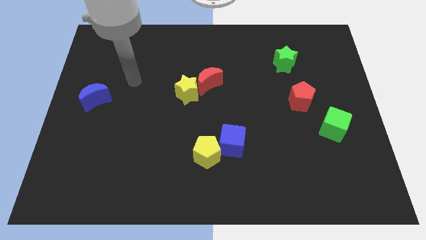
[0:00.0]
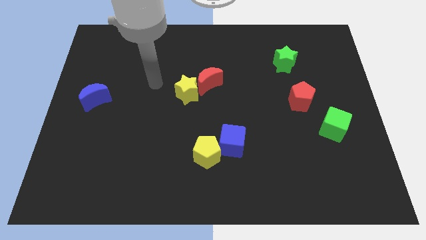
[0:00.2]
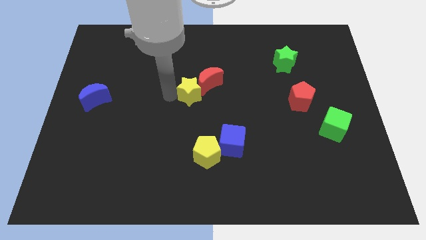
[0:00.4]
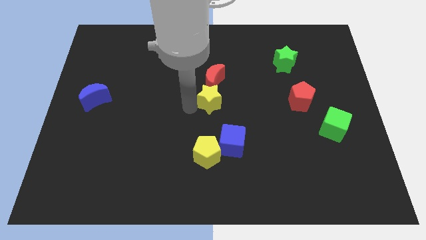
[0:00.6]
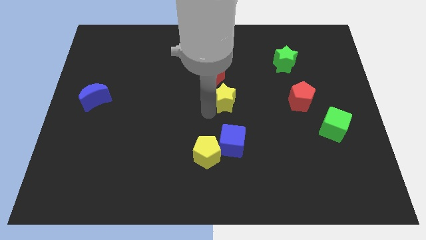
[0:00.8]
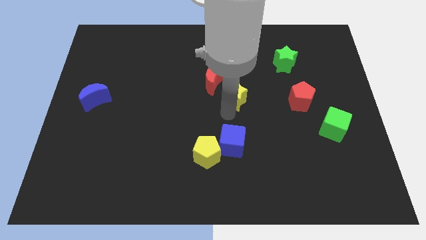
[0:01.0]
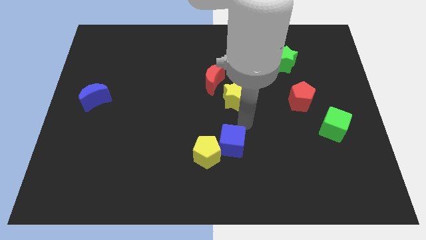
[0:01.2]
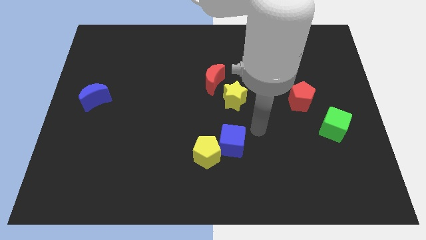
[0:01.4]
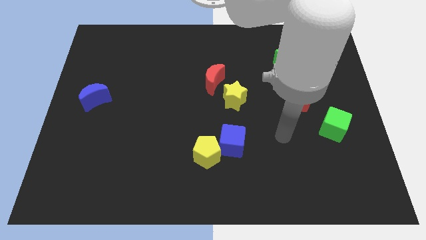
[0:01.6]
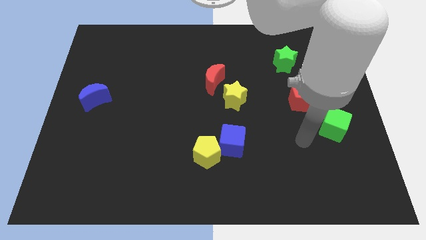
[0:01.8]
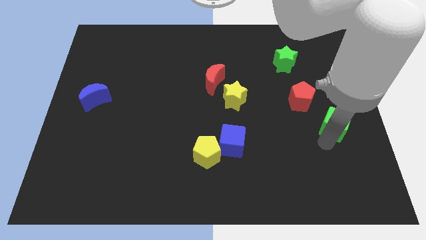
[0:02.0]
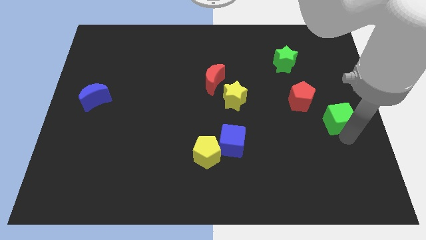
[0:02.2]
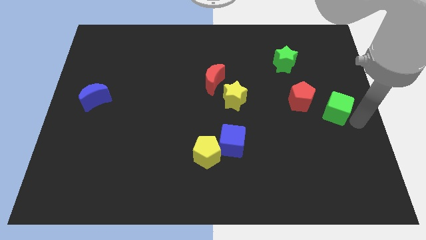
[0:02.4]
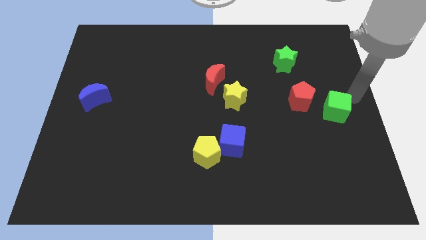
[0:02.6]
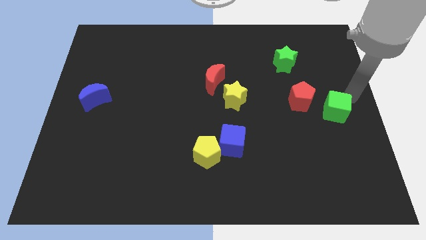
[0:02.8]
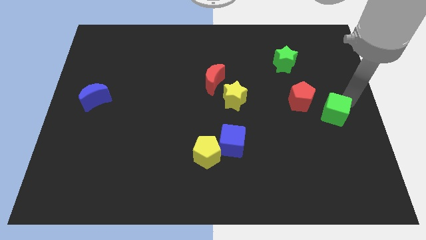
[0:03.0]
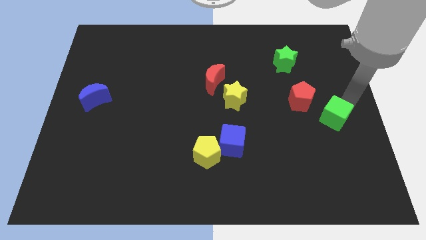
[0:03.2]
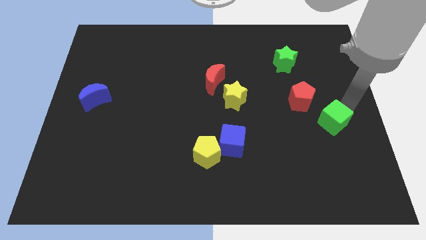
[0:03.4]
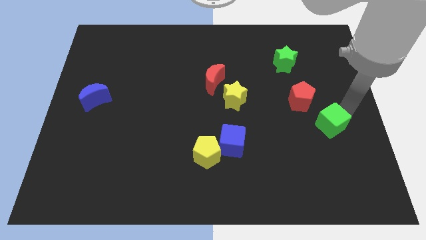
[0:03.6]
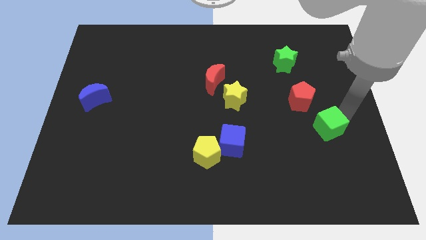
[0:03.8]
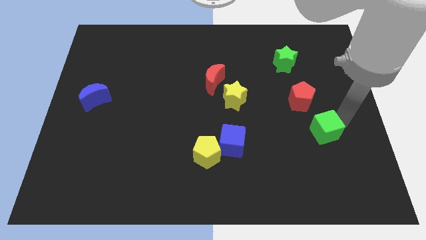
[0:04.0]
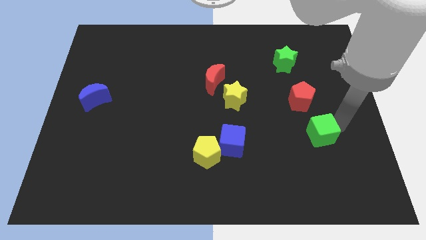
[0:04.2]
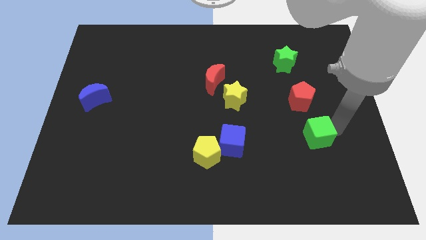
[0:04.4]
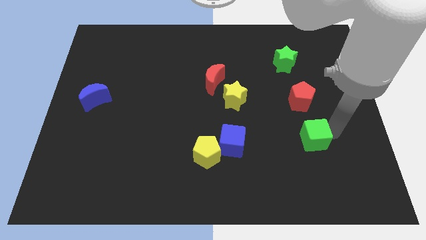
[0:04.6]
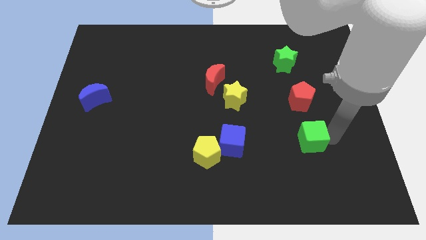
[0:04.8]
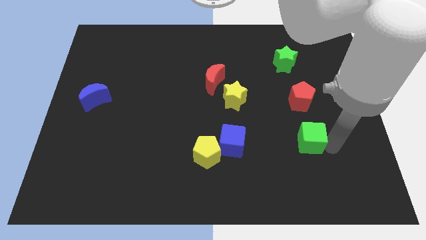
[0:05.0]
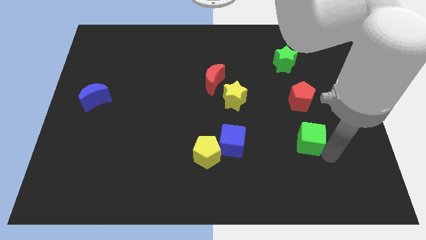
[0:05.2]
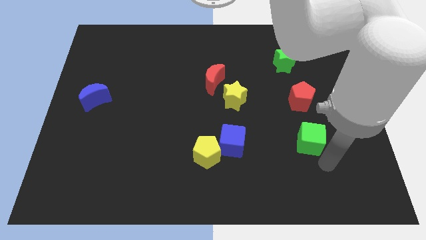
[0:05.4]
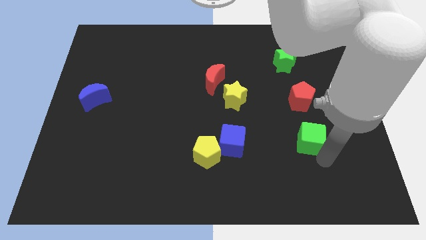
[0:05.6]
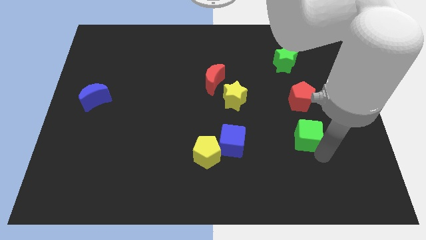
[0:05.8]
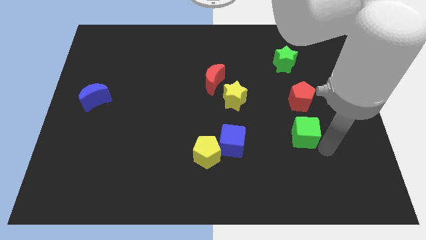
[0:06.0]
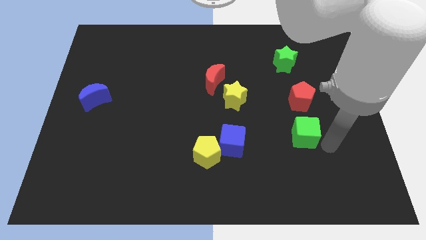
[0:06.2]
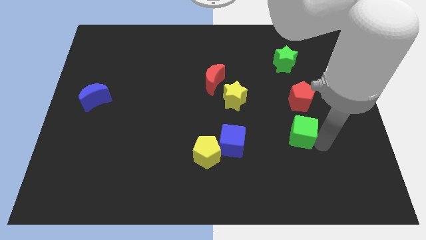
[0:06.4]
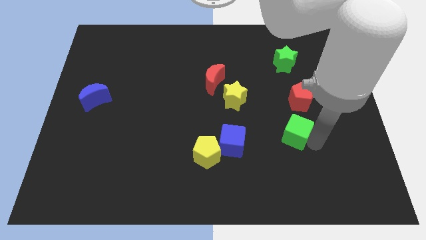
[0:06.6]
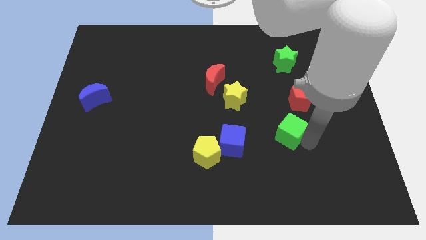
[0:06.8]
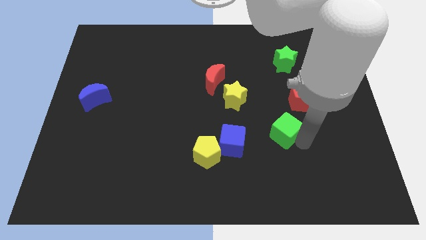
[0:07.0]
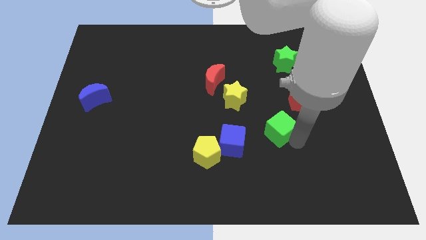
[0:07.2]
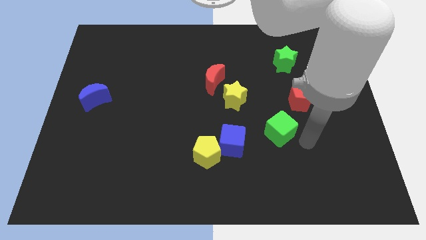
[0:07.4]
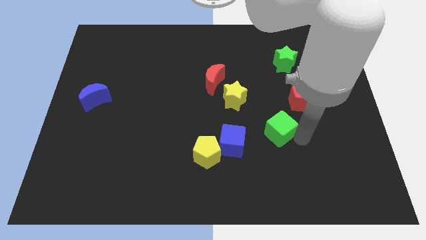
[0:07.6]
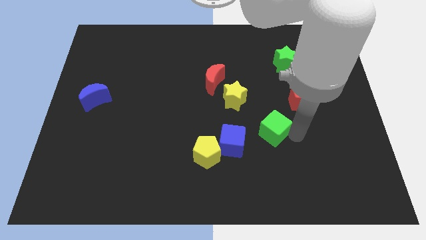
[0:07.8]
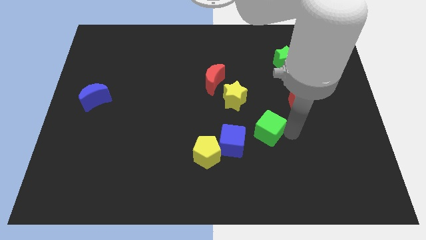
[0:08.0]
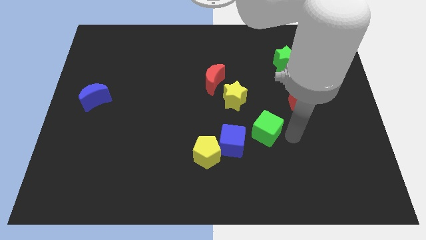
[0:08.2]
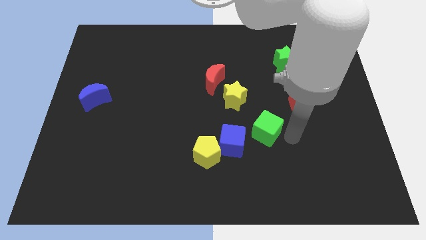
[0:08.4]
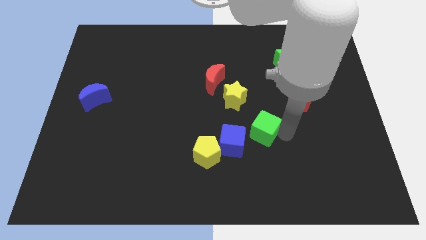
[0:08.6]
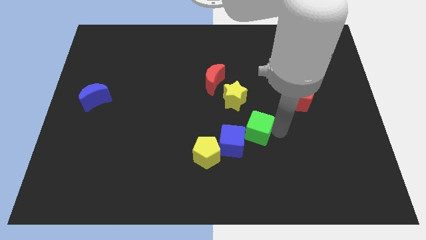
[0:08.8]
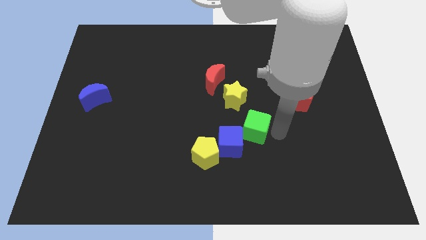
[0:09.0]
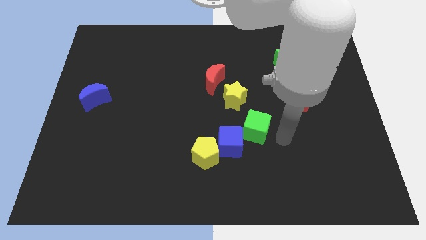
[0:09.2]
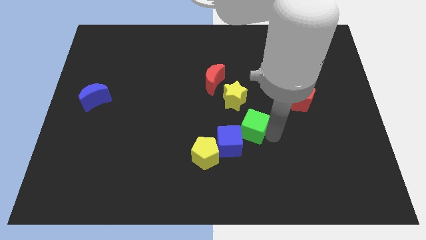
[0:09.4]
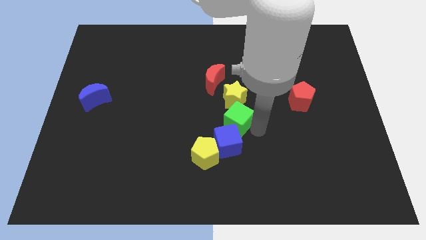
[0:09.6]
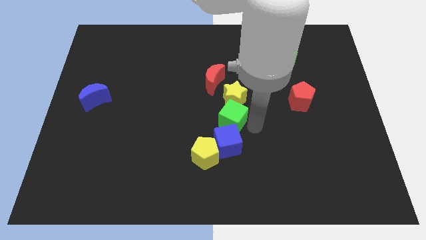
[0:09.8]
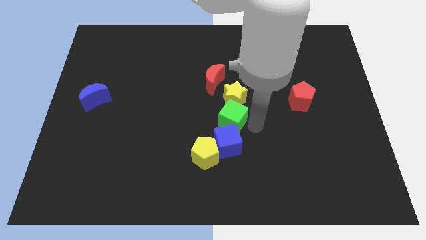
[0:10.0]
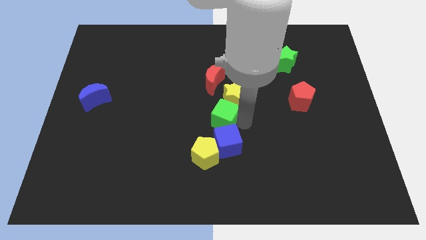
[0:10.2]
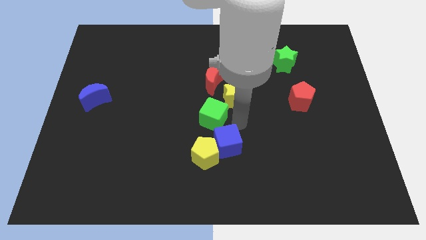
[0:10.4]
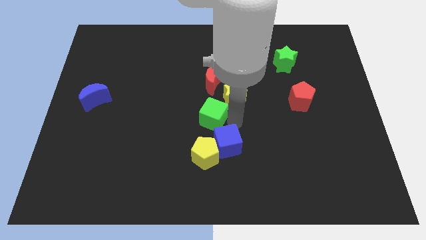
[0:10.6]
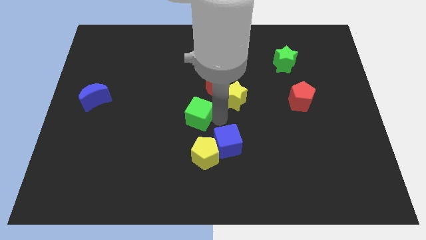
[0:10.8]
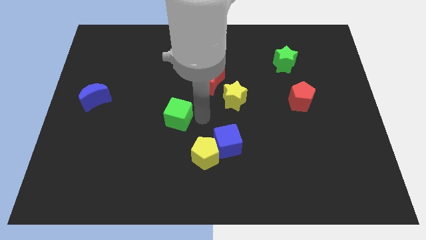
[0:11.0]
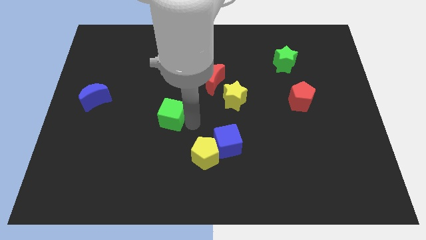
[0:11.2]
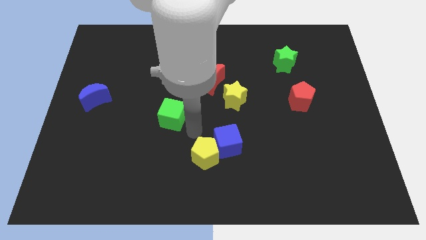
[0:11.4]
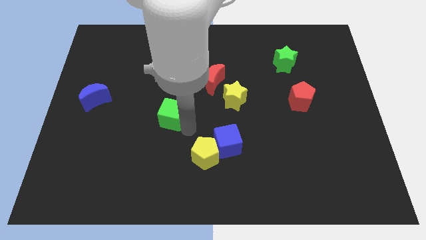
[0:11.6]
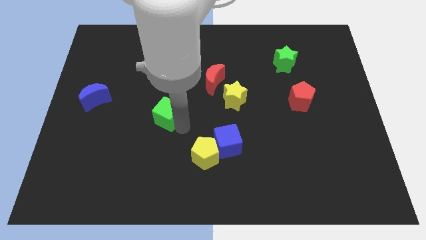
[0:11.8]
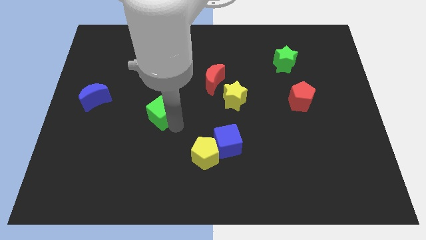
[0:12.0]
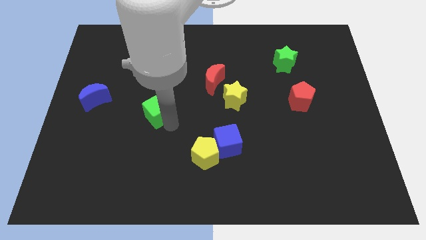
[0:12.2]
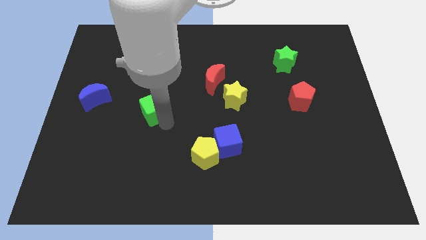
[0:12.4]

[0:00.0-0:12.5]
push the green cube just right of the blue moon

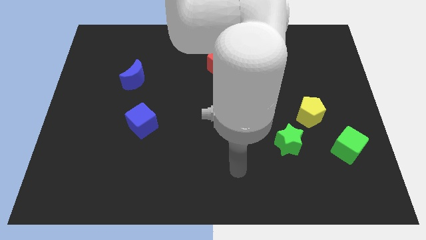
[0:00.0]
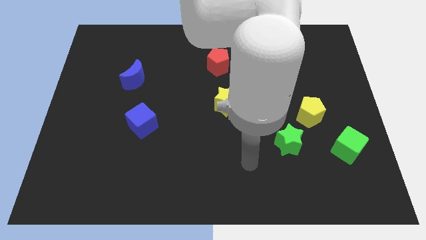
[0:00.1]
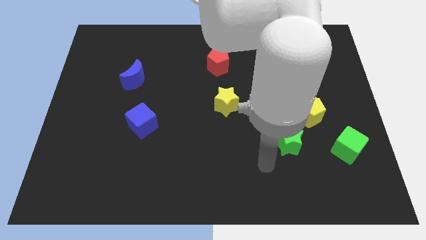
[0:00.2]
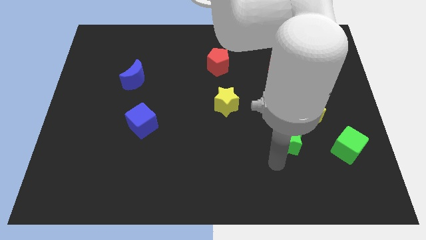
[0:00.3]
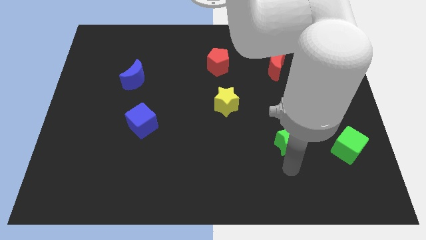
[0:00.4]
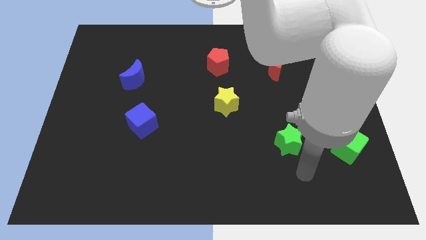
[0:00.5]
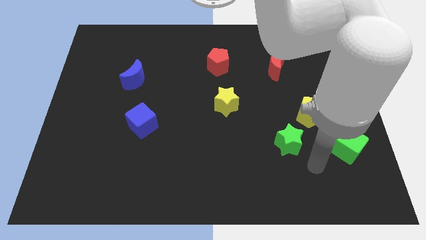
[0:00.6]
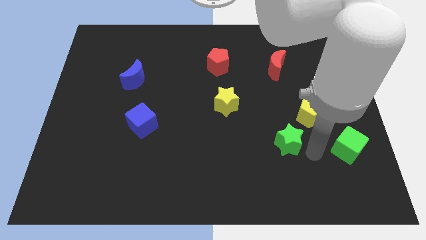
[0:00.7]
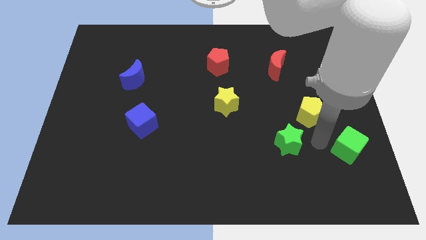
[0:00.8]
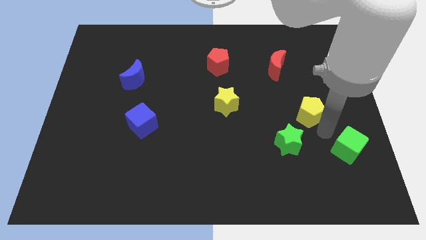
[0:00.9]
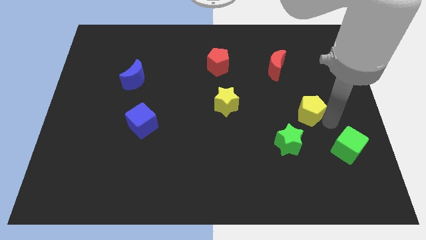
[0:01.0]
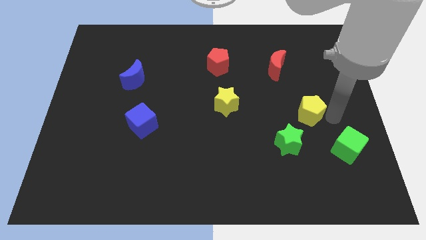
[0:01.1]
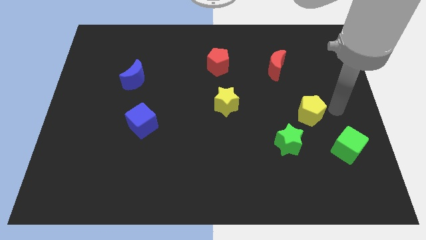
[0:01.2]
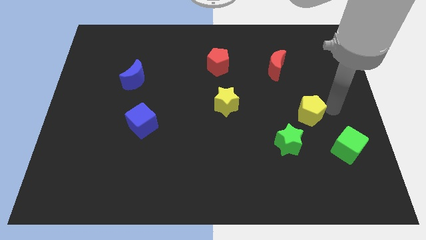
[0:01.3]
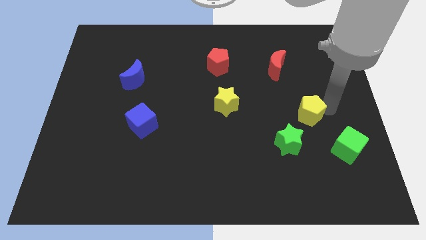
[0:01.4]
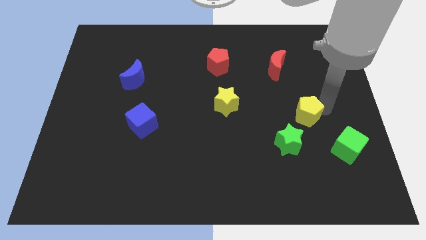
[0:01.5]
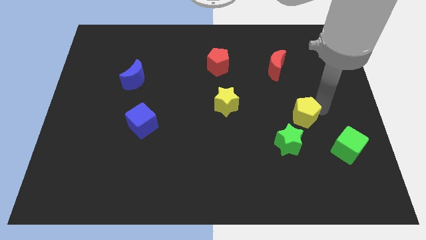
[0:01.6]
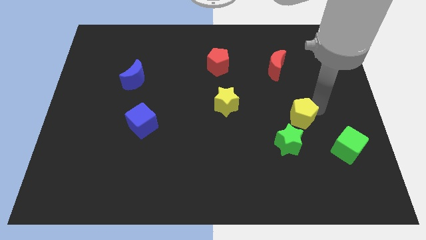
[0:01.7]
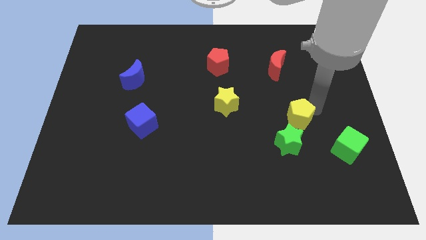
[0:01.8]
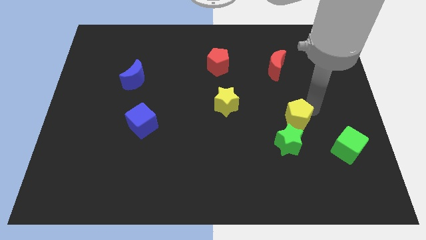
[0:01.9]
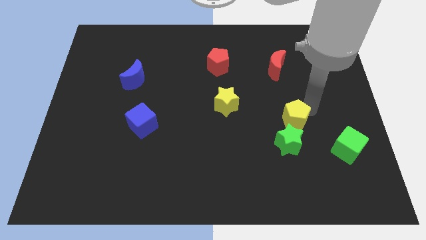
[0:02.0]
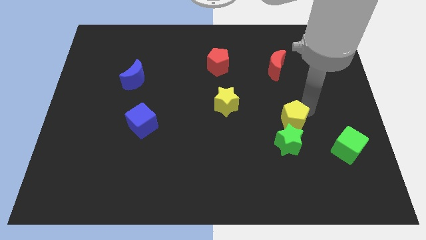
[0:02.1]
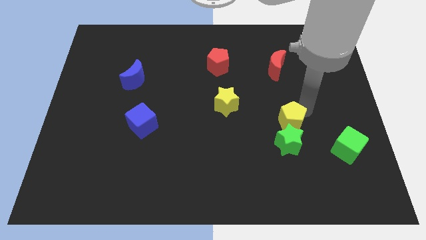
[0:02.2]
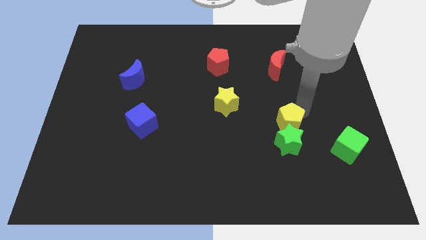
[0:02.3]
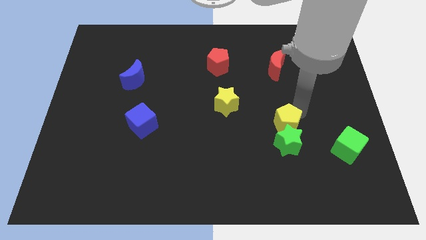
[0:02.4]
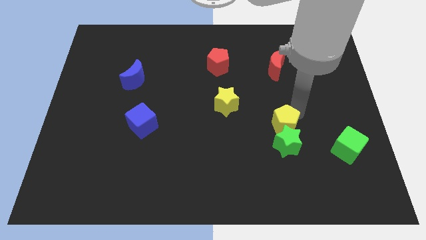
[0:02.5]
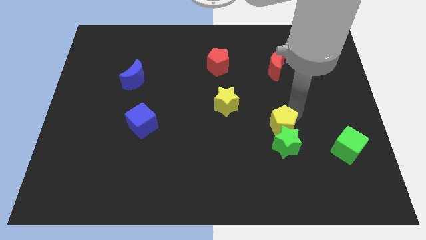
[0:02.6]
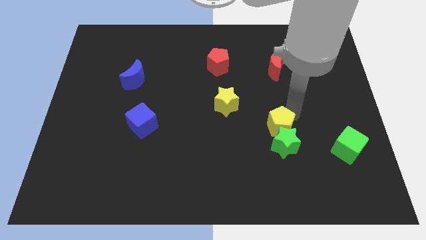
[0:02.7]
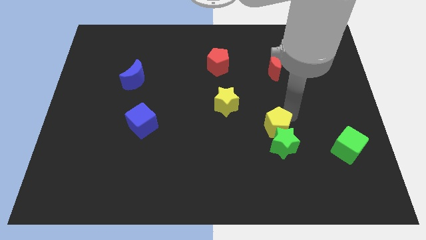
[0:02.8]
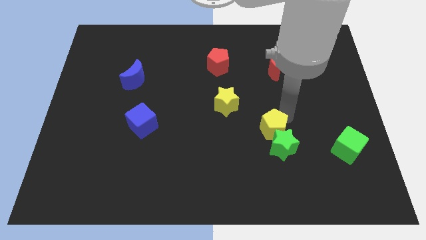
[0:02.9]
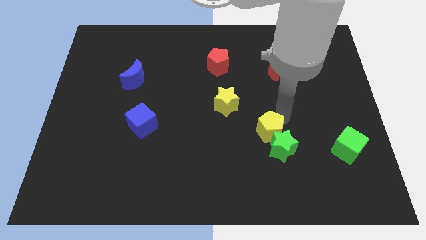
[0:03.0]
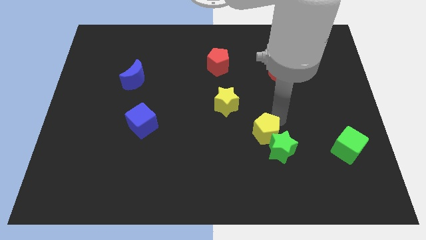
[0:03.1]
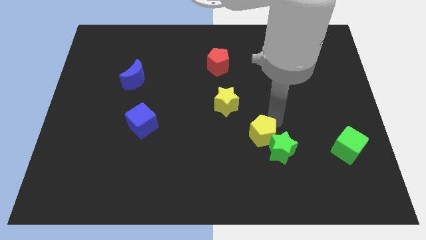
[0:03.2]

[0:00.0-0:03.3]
move the yellow pentagon to the left of the green star
